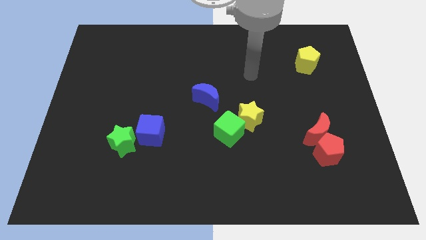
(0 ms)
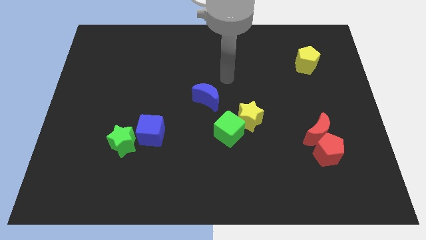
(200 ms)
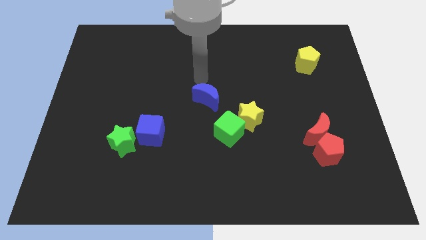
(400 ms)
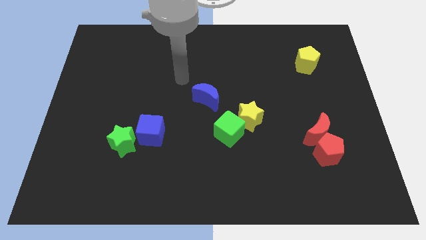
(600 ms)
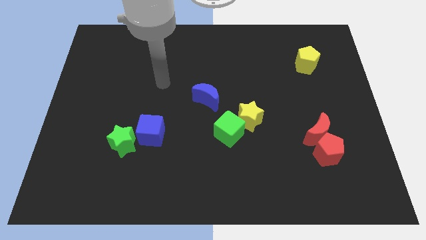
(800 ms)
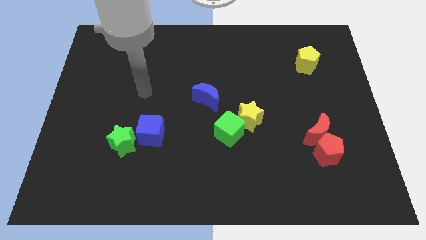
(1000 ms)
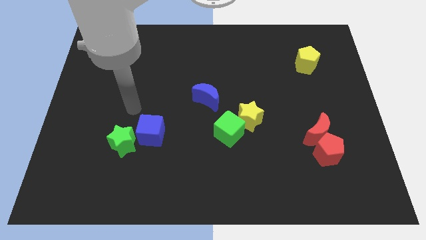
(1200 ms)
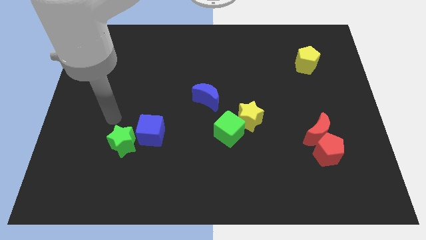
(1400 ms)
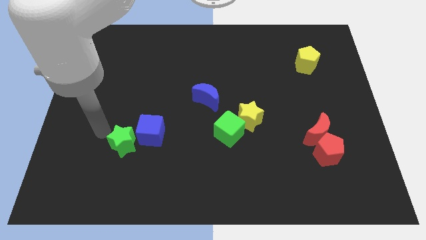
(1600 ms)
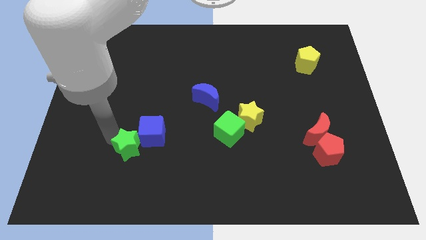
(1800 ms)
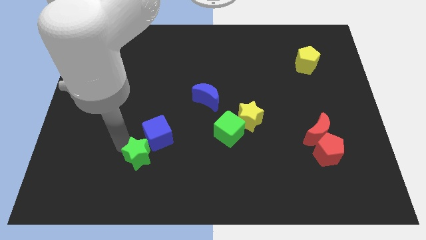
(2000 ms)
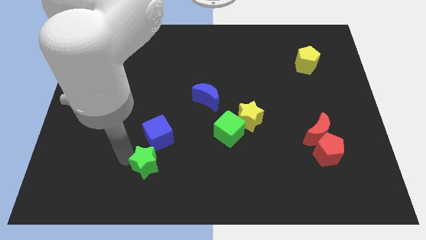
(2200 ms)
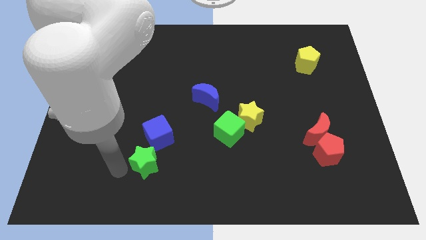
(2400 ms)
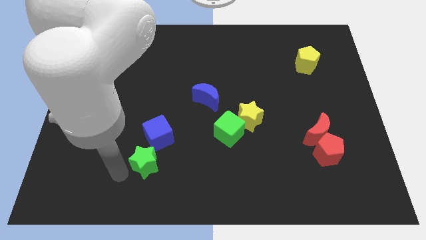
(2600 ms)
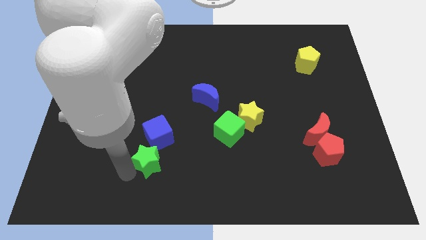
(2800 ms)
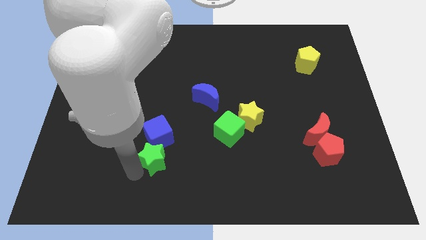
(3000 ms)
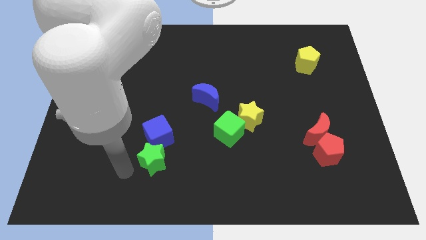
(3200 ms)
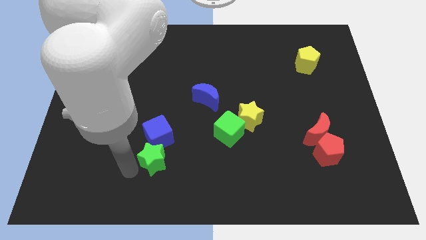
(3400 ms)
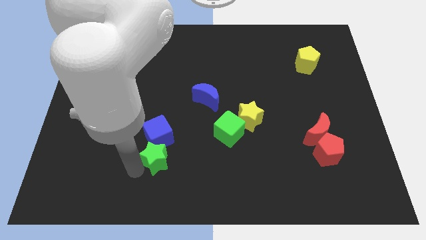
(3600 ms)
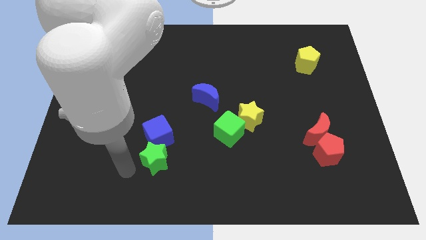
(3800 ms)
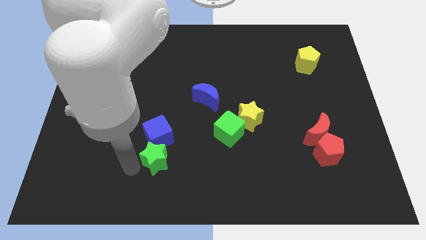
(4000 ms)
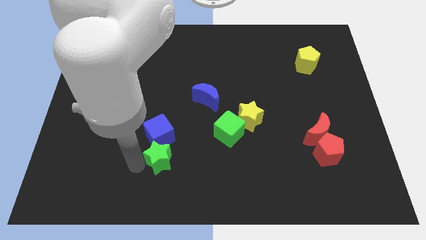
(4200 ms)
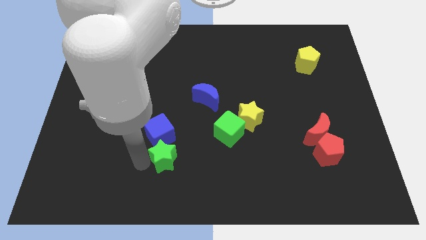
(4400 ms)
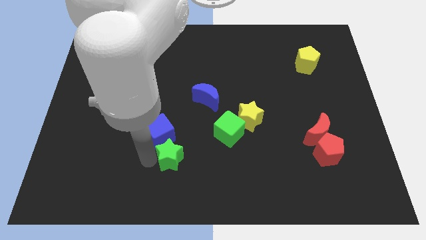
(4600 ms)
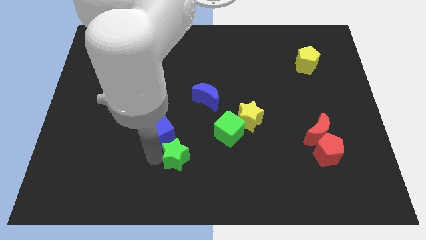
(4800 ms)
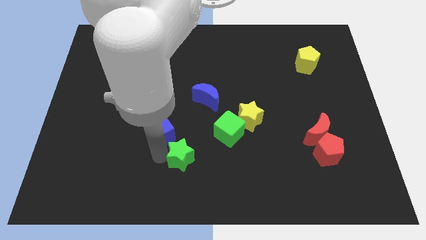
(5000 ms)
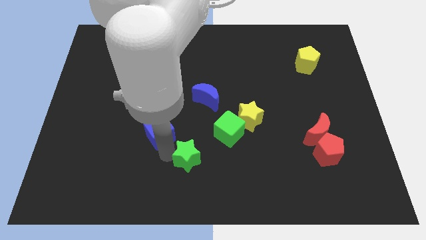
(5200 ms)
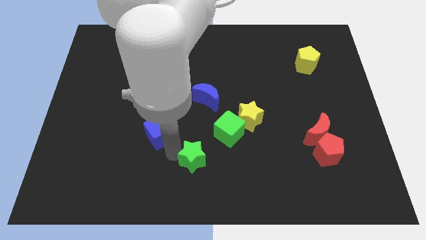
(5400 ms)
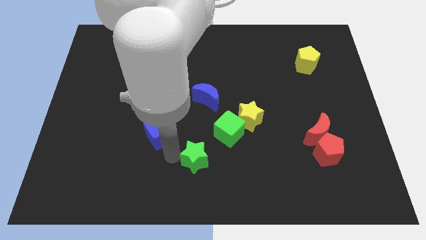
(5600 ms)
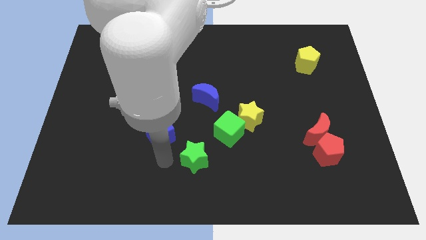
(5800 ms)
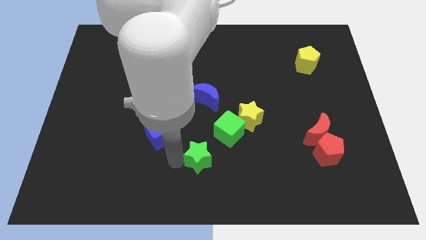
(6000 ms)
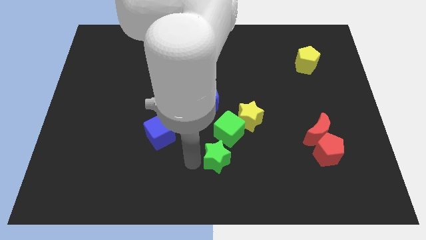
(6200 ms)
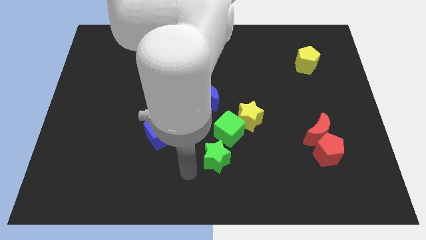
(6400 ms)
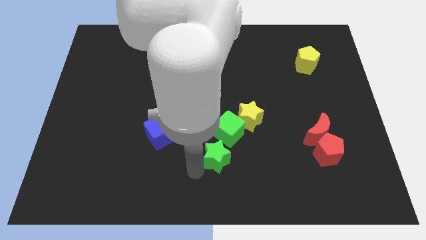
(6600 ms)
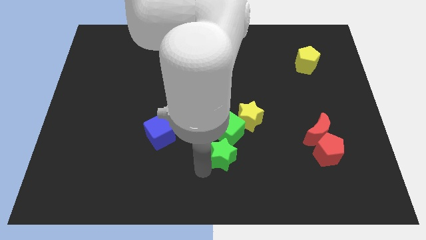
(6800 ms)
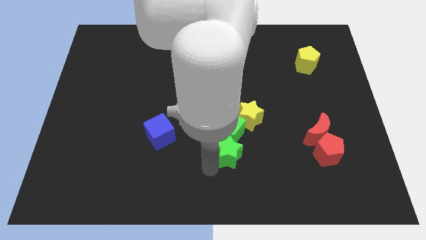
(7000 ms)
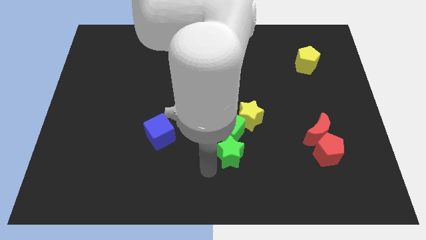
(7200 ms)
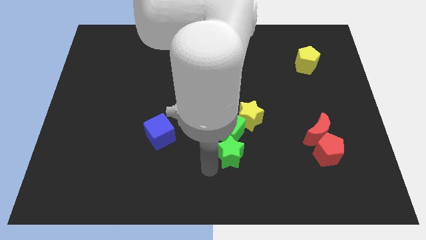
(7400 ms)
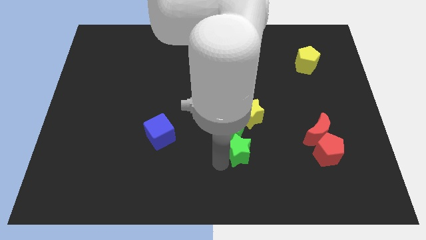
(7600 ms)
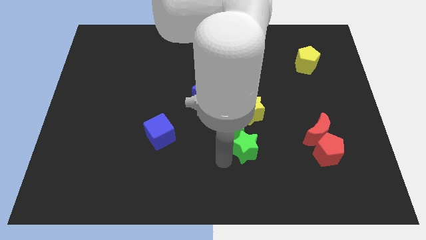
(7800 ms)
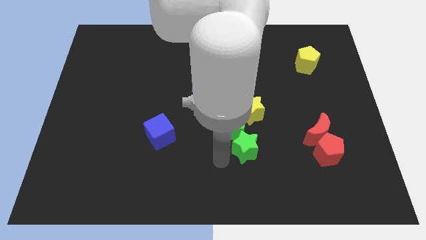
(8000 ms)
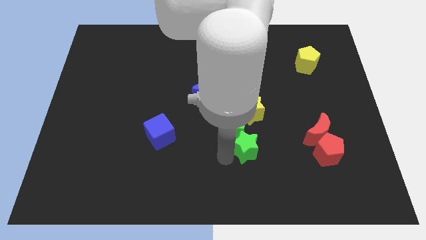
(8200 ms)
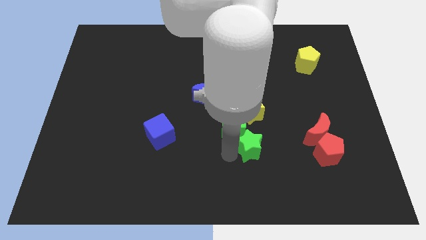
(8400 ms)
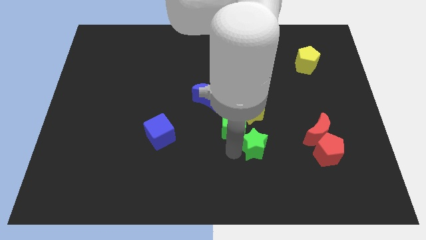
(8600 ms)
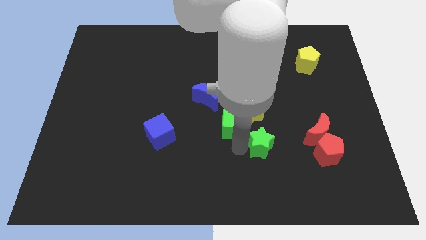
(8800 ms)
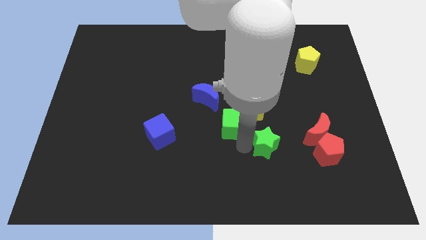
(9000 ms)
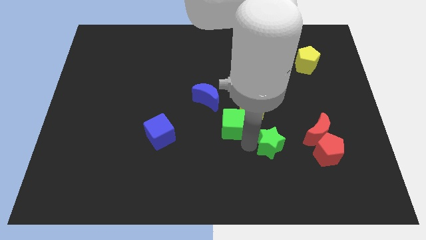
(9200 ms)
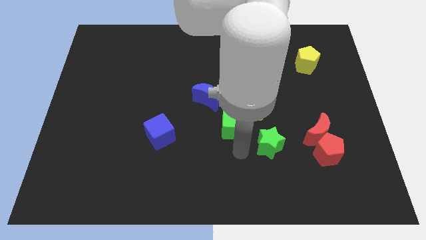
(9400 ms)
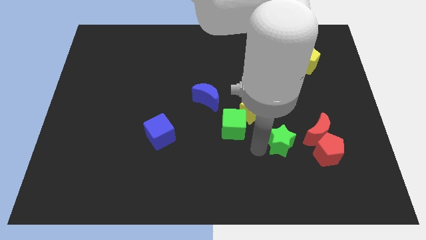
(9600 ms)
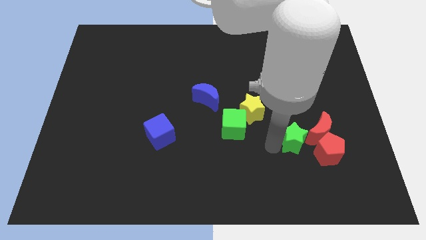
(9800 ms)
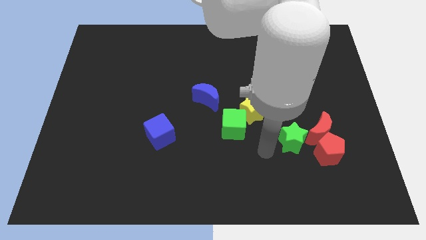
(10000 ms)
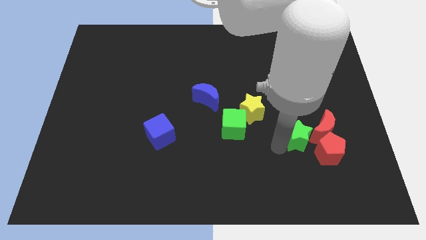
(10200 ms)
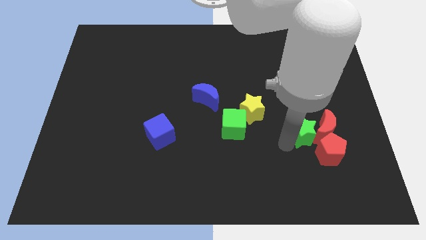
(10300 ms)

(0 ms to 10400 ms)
put the green star close to the red moon

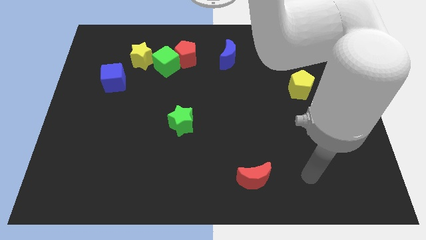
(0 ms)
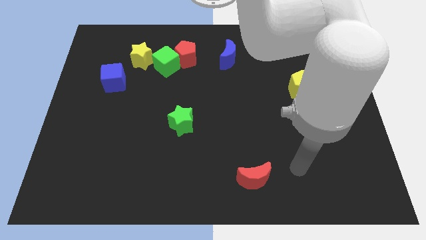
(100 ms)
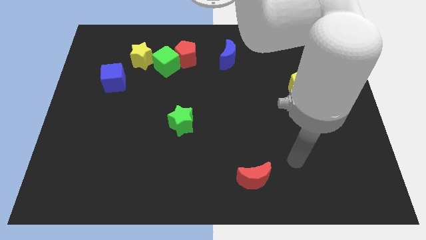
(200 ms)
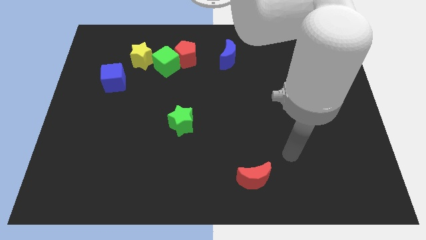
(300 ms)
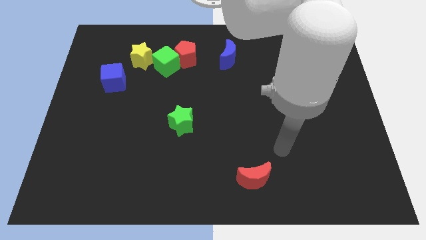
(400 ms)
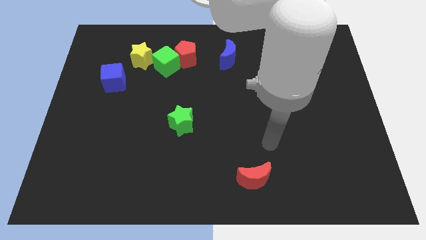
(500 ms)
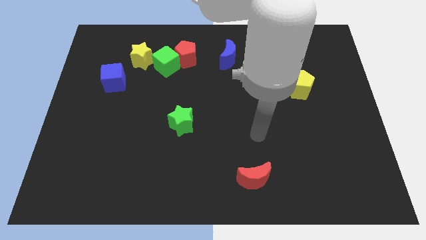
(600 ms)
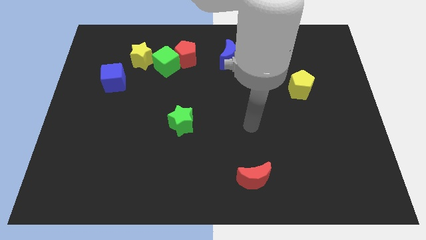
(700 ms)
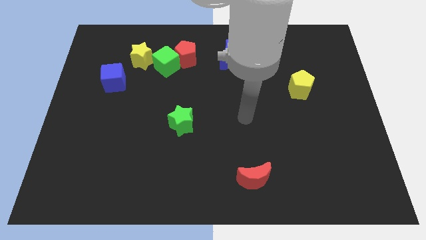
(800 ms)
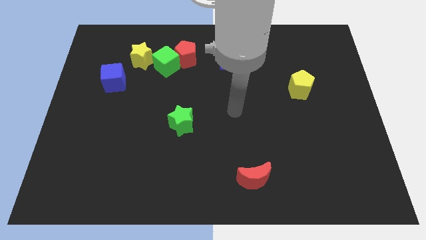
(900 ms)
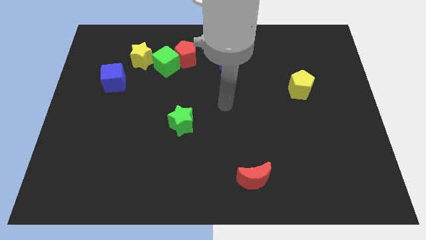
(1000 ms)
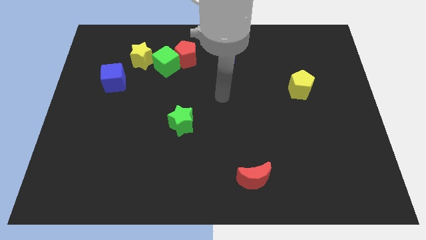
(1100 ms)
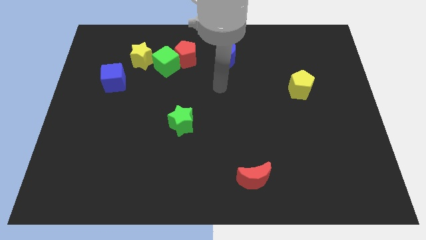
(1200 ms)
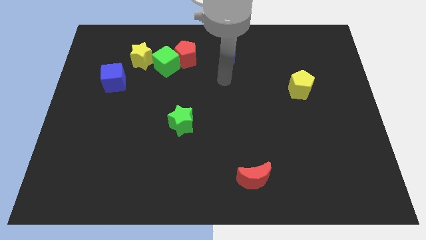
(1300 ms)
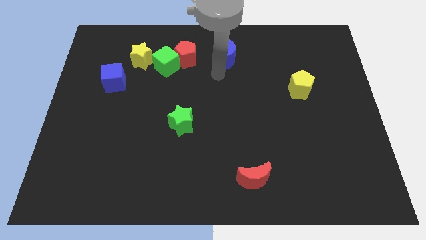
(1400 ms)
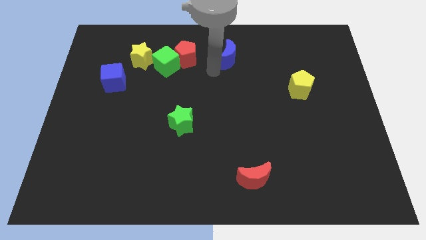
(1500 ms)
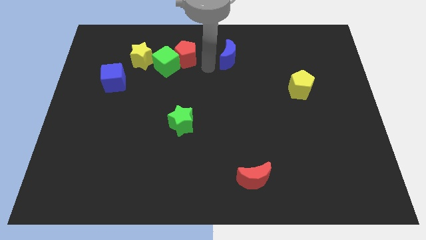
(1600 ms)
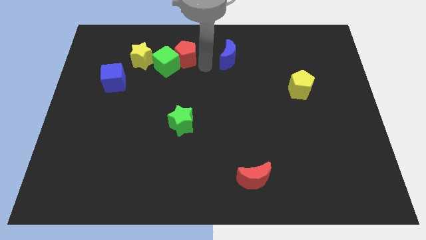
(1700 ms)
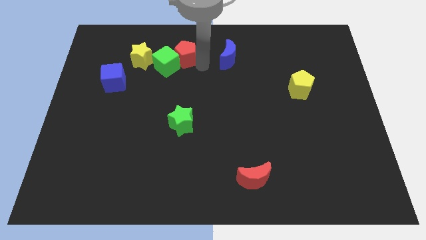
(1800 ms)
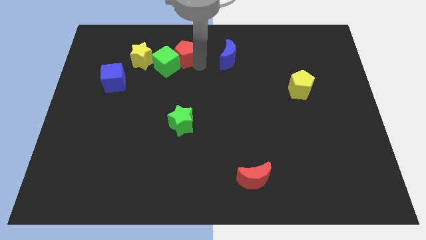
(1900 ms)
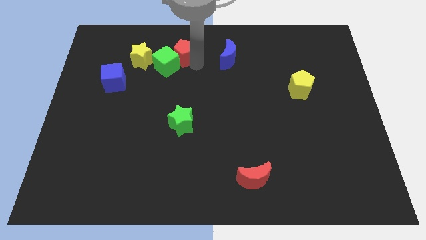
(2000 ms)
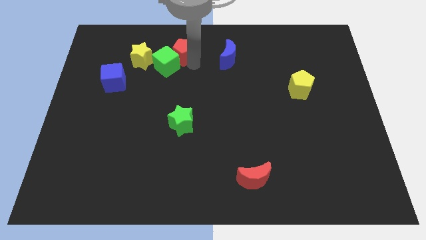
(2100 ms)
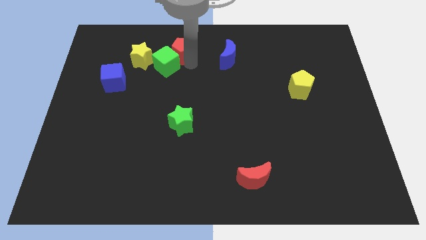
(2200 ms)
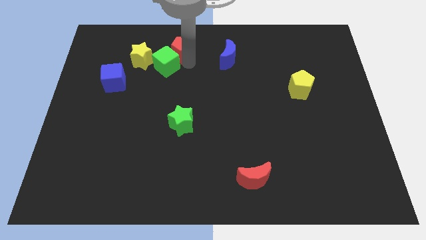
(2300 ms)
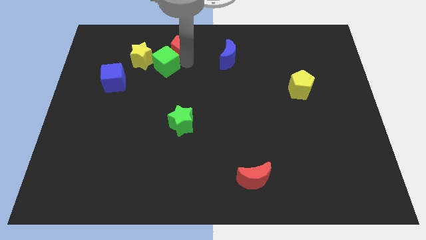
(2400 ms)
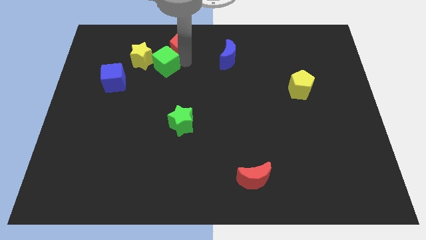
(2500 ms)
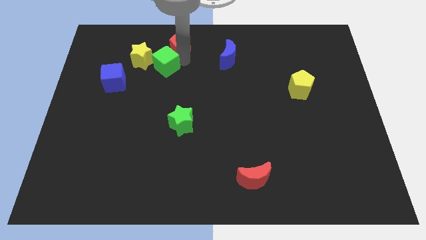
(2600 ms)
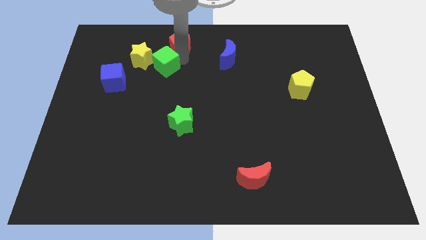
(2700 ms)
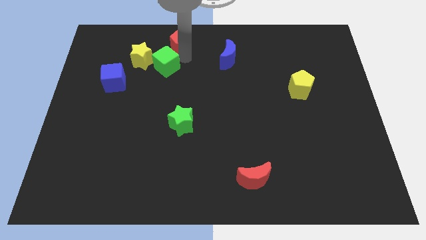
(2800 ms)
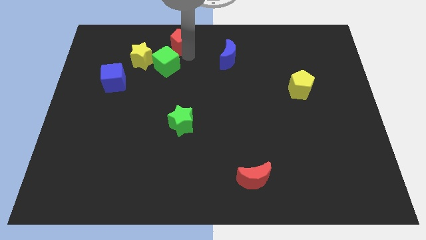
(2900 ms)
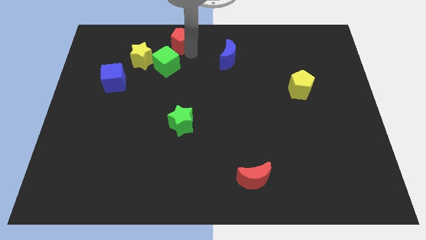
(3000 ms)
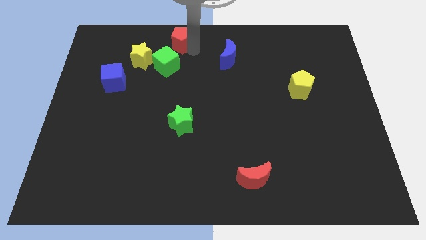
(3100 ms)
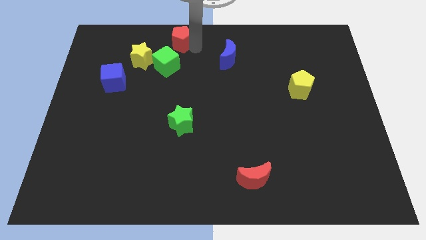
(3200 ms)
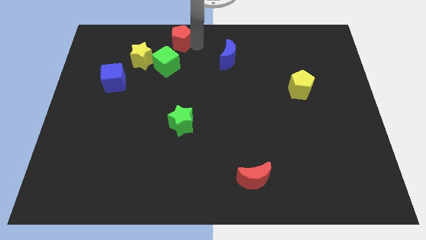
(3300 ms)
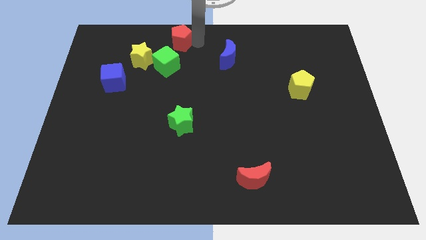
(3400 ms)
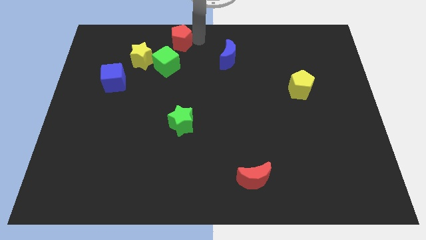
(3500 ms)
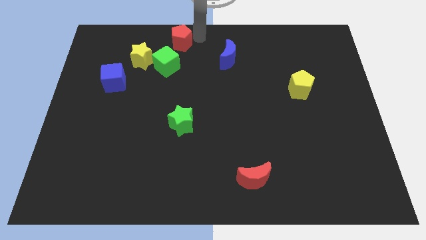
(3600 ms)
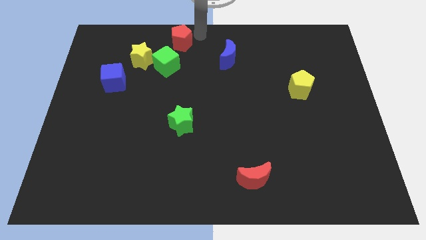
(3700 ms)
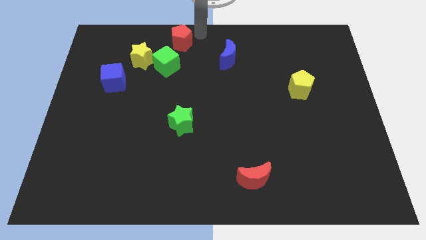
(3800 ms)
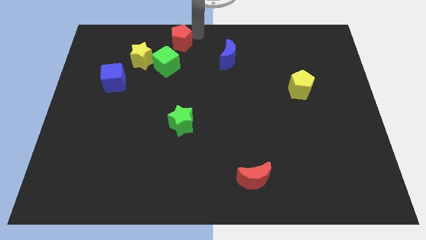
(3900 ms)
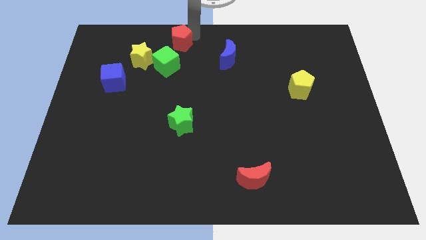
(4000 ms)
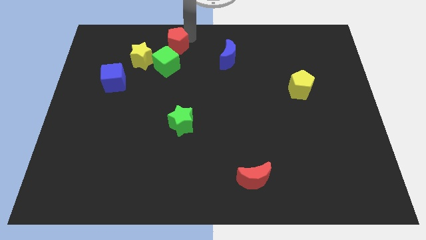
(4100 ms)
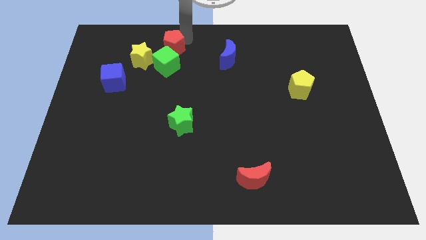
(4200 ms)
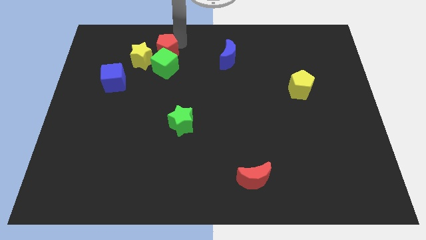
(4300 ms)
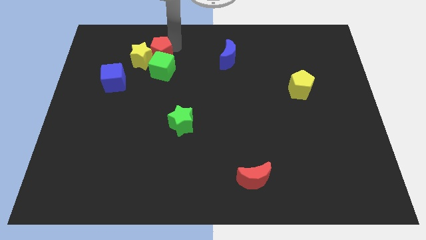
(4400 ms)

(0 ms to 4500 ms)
slide the red pentagon to the yellow star
